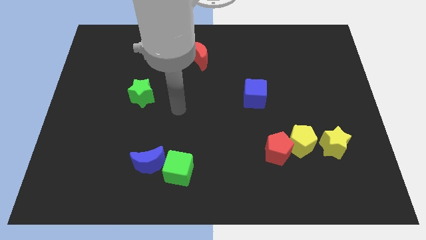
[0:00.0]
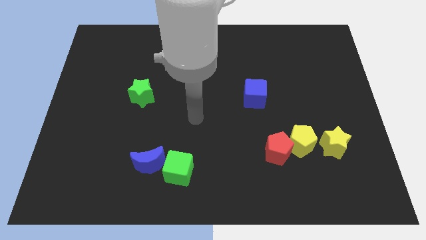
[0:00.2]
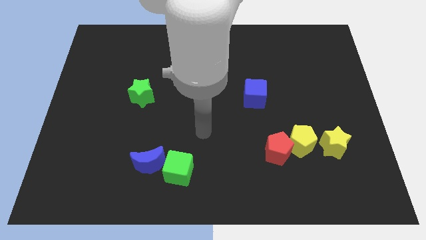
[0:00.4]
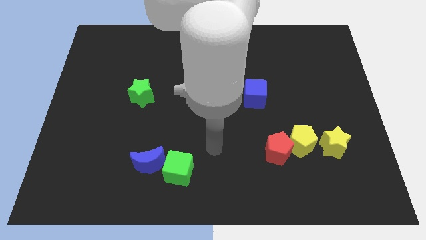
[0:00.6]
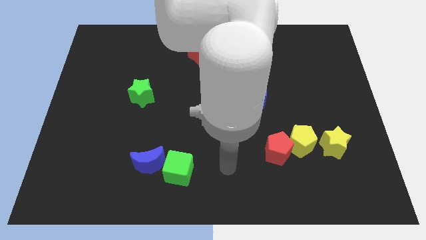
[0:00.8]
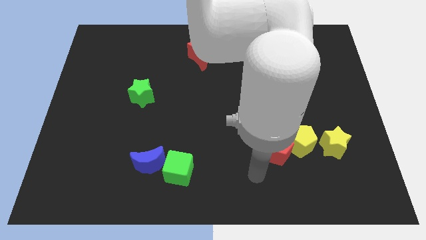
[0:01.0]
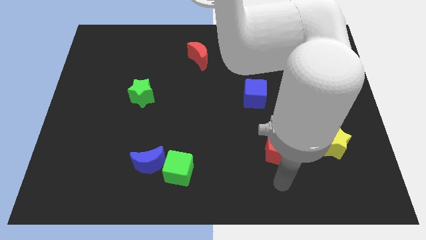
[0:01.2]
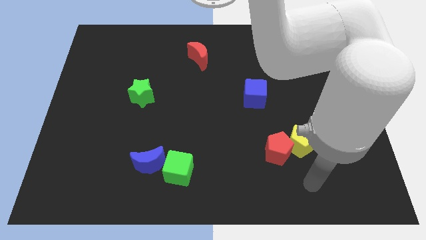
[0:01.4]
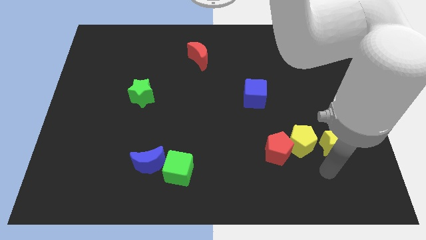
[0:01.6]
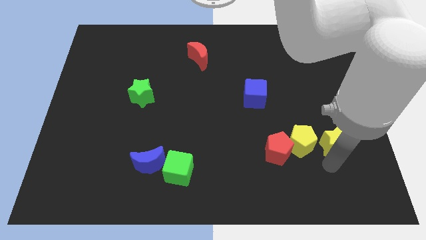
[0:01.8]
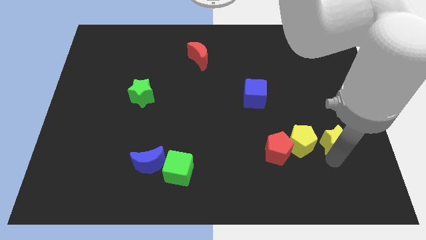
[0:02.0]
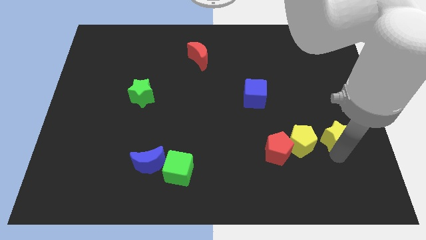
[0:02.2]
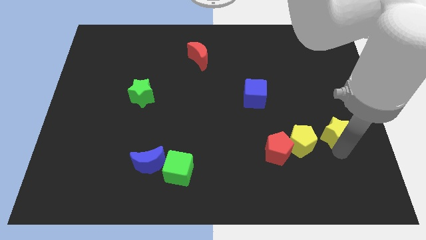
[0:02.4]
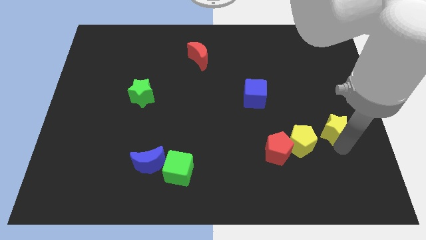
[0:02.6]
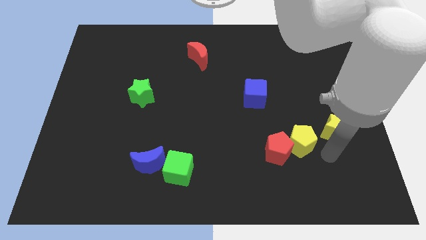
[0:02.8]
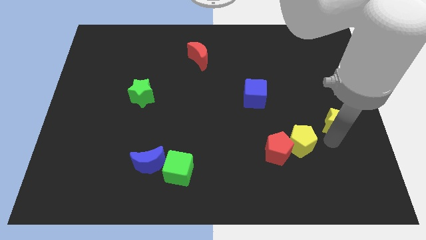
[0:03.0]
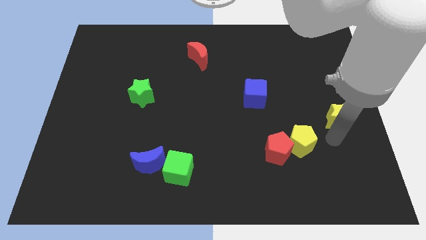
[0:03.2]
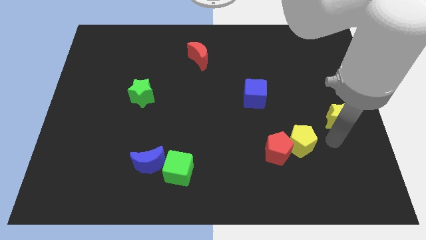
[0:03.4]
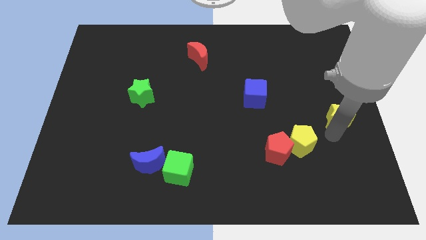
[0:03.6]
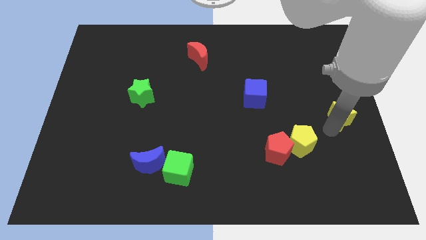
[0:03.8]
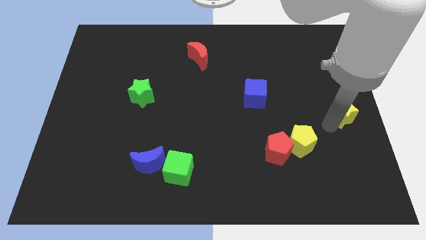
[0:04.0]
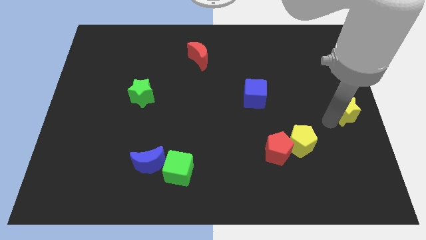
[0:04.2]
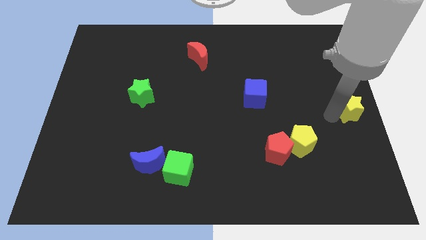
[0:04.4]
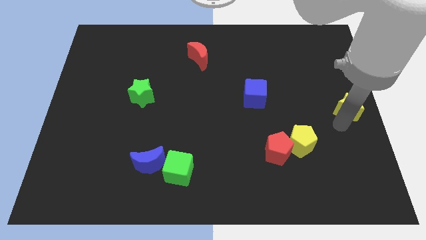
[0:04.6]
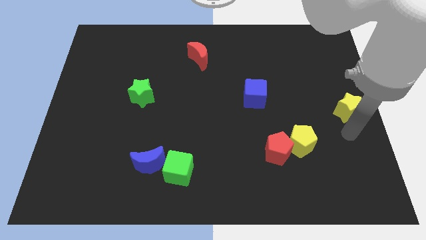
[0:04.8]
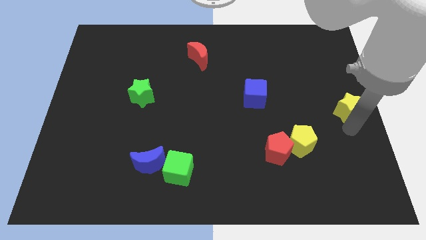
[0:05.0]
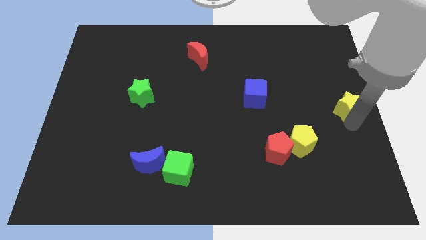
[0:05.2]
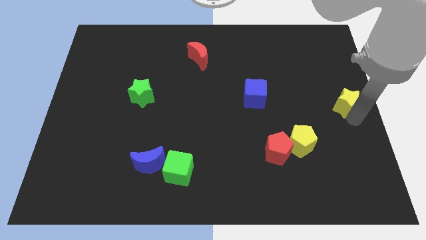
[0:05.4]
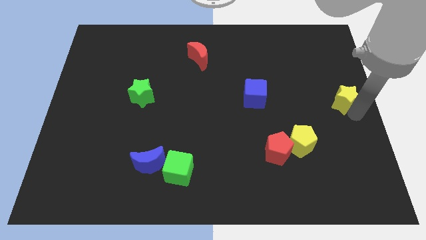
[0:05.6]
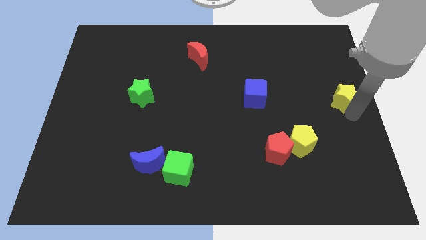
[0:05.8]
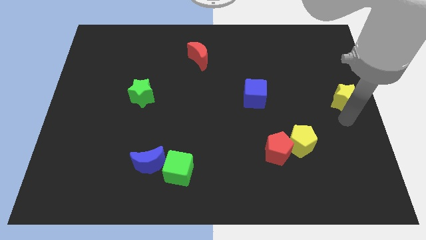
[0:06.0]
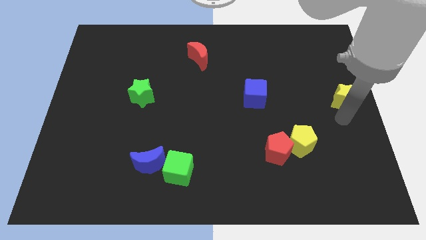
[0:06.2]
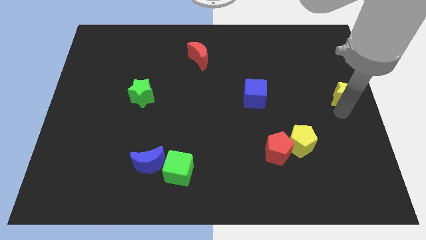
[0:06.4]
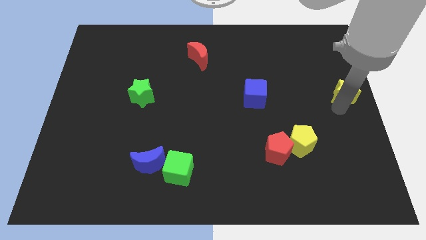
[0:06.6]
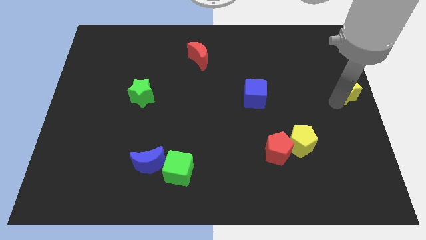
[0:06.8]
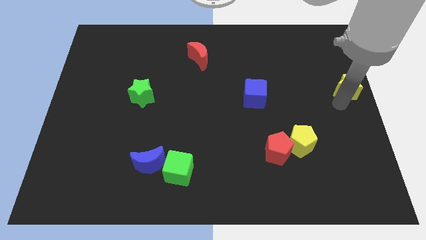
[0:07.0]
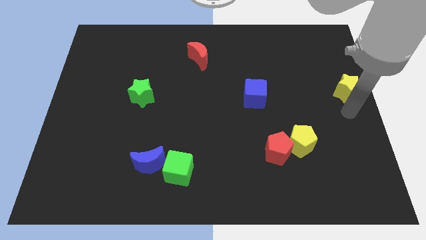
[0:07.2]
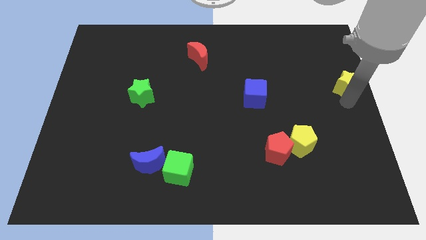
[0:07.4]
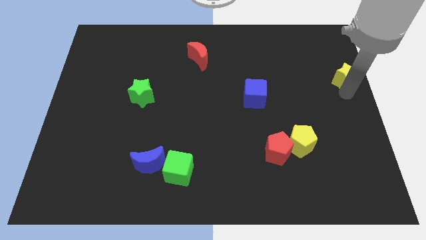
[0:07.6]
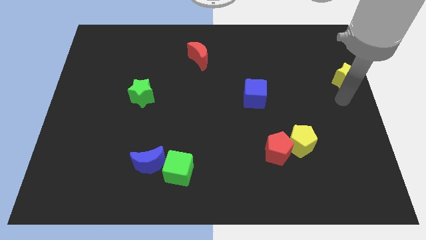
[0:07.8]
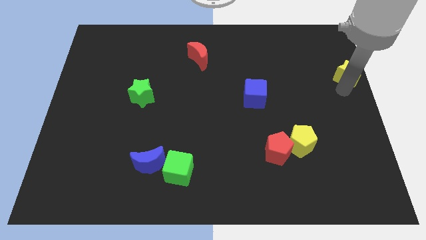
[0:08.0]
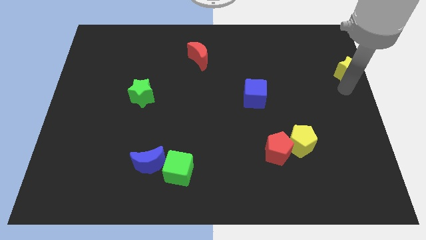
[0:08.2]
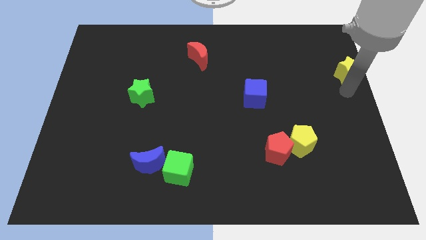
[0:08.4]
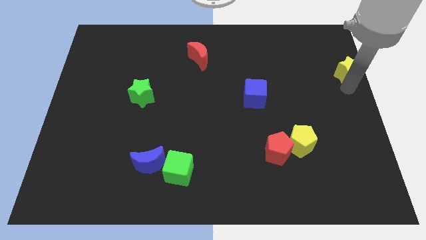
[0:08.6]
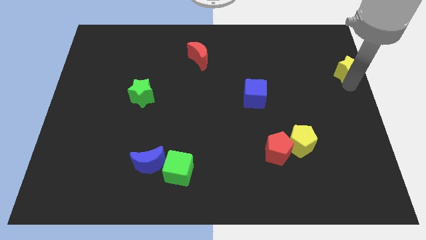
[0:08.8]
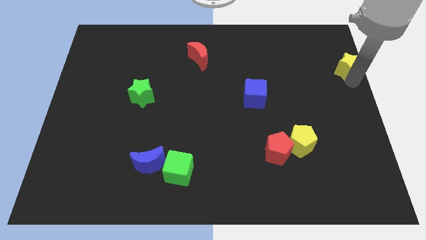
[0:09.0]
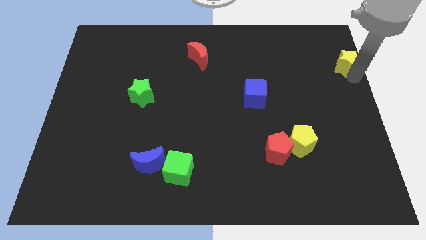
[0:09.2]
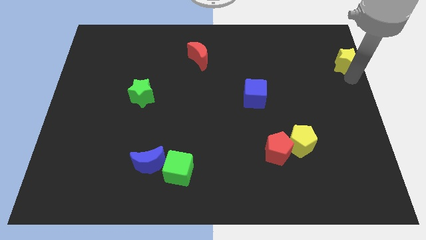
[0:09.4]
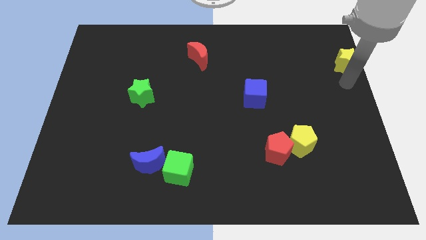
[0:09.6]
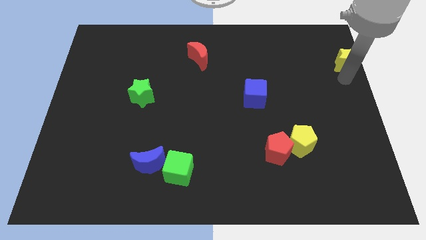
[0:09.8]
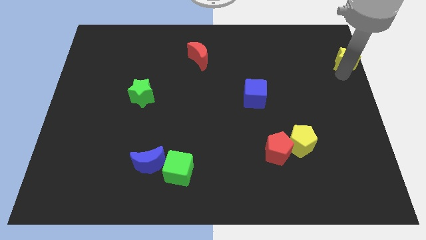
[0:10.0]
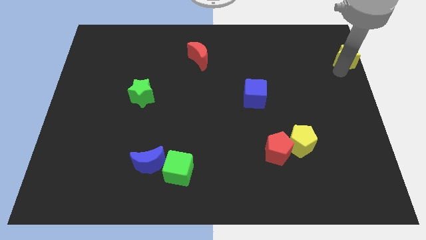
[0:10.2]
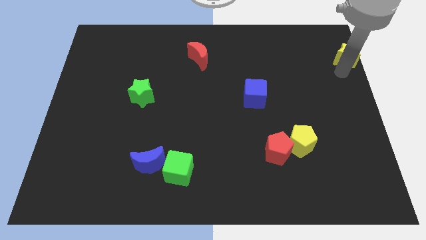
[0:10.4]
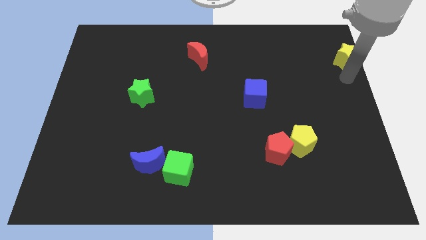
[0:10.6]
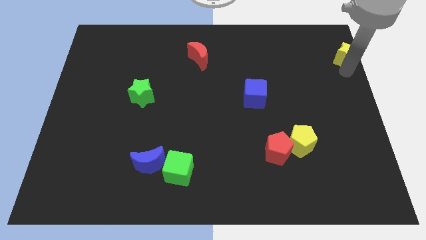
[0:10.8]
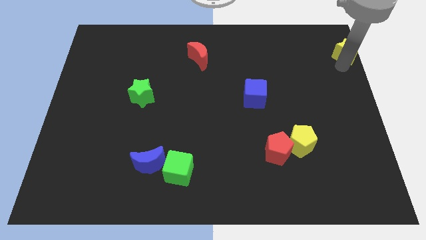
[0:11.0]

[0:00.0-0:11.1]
slide the yellow star to the upper right corner
